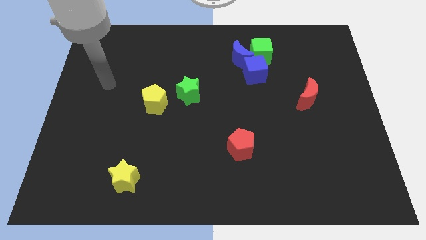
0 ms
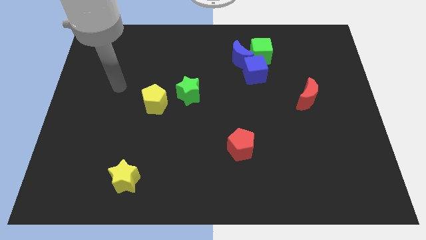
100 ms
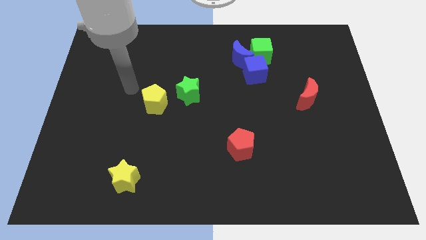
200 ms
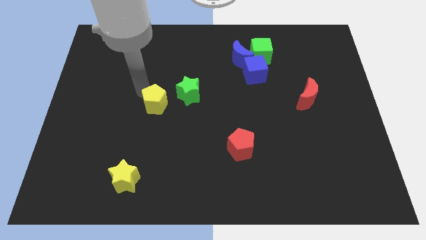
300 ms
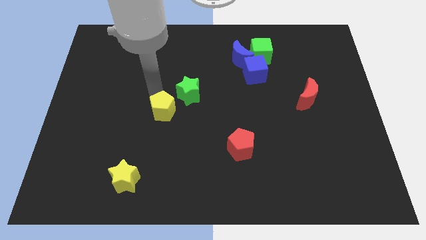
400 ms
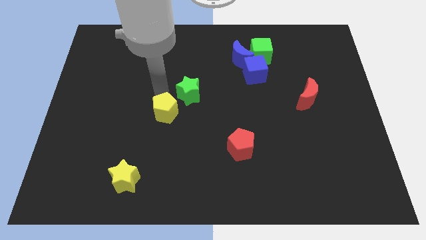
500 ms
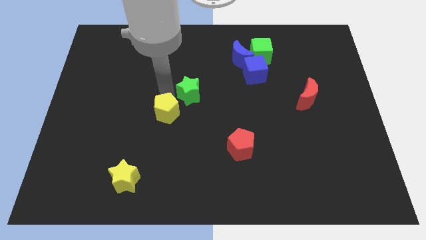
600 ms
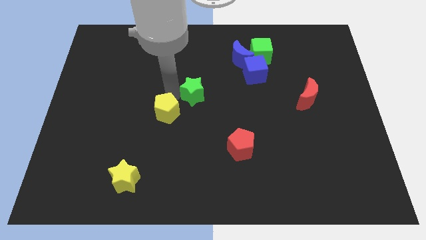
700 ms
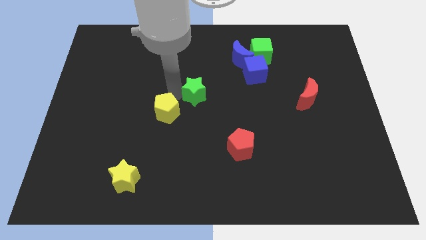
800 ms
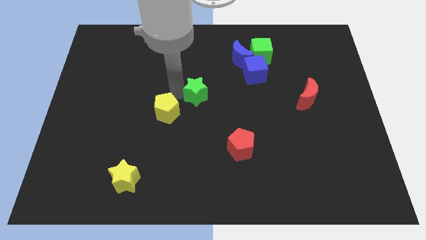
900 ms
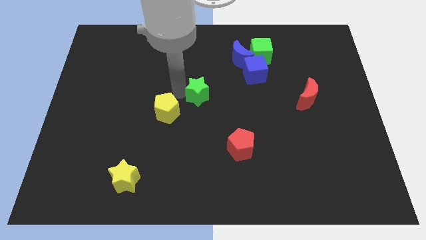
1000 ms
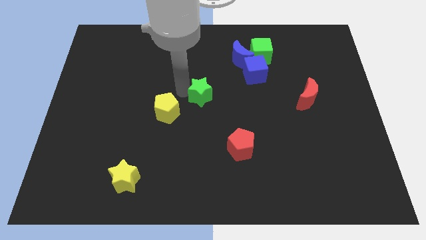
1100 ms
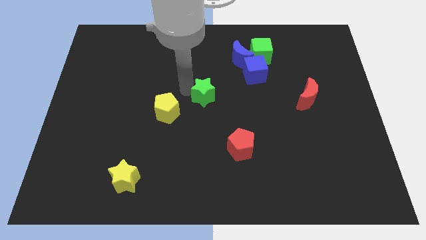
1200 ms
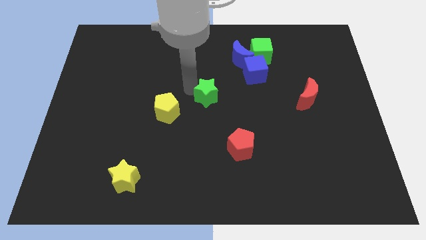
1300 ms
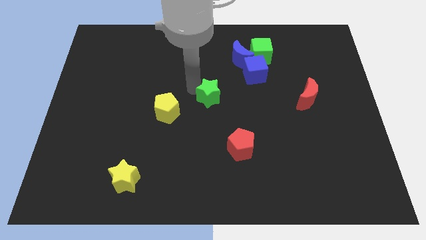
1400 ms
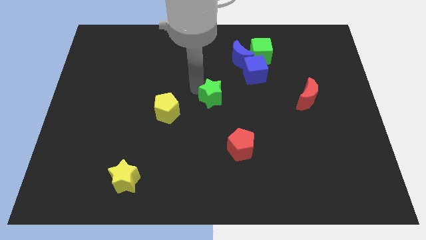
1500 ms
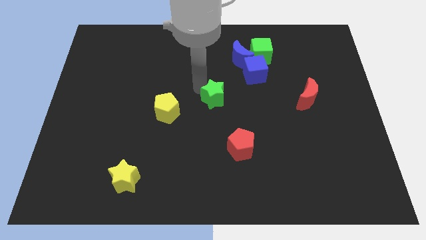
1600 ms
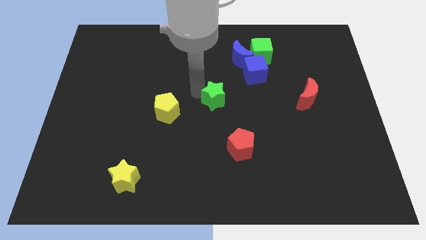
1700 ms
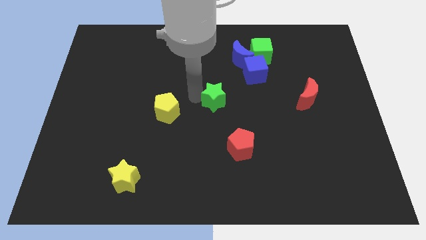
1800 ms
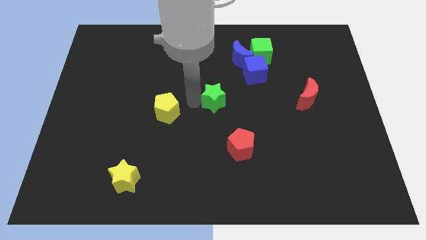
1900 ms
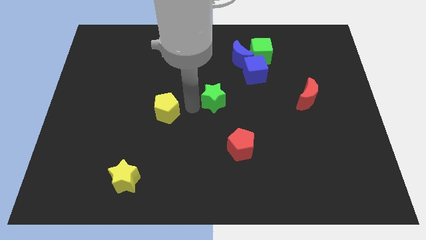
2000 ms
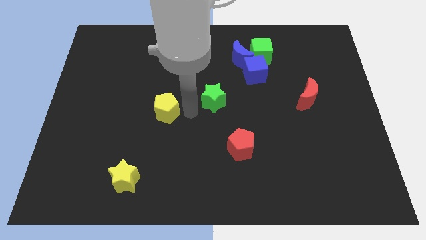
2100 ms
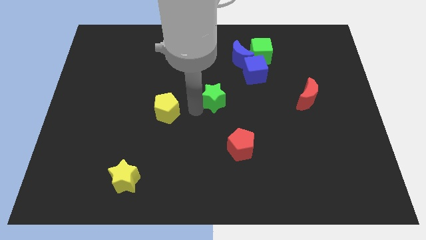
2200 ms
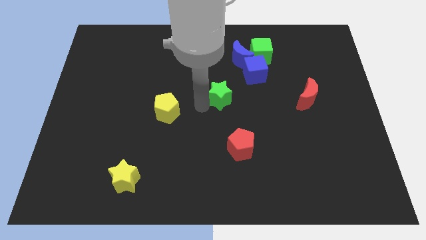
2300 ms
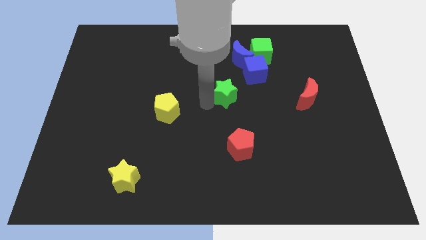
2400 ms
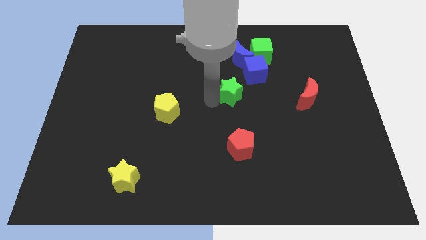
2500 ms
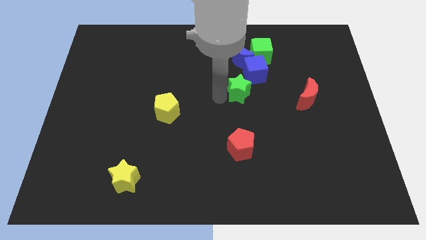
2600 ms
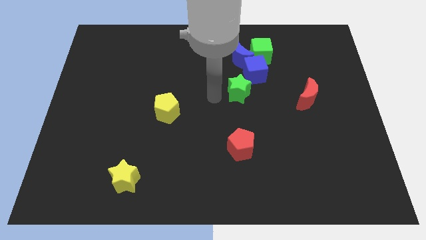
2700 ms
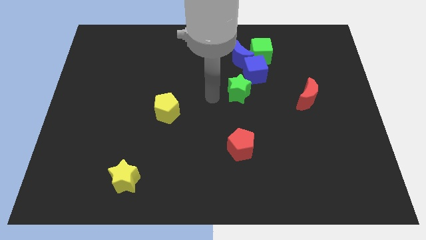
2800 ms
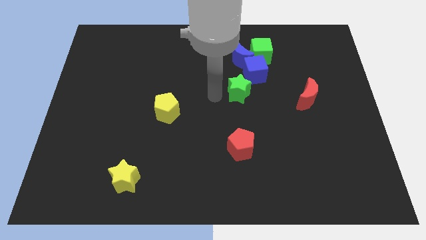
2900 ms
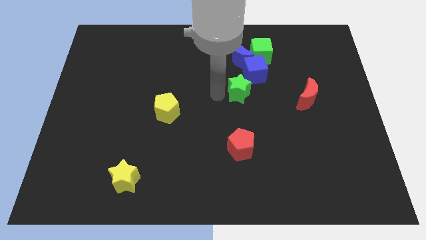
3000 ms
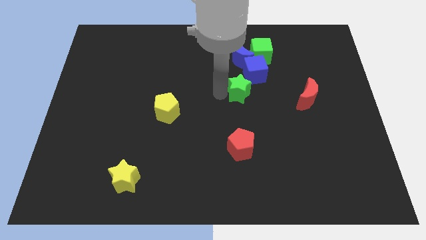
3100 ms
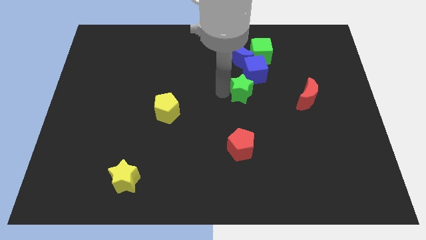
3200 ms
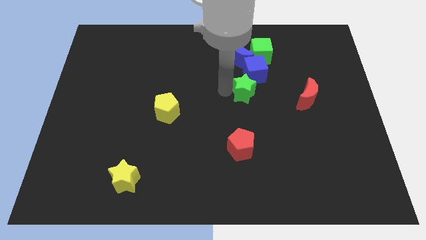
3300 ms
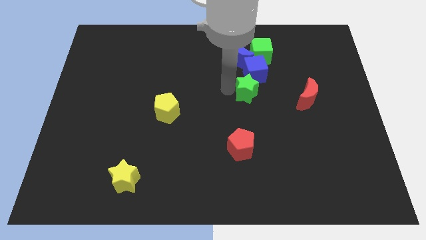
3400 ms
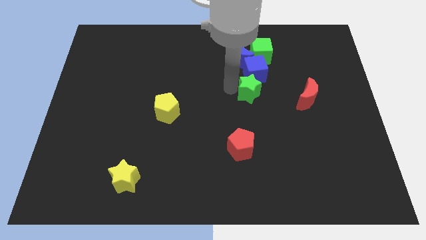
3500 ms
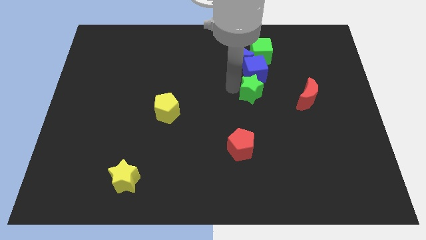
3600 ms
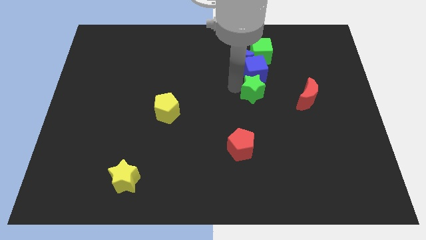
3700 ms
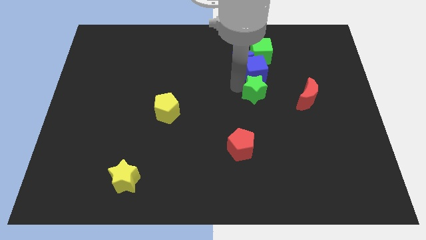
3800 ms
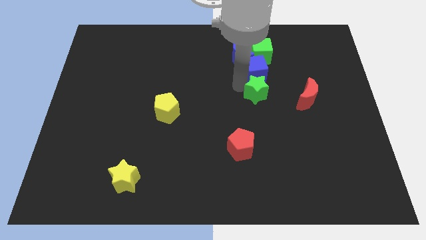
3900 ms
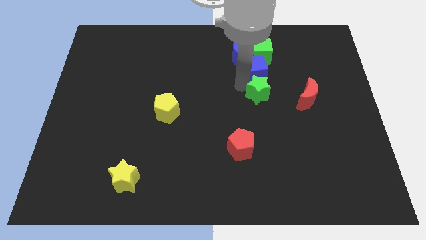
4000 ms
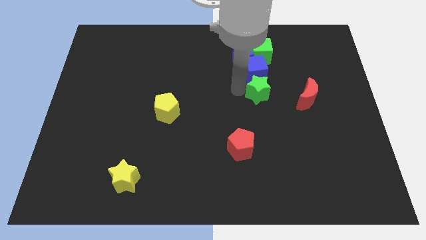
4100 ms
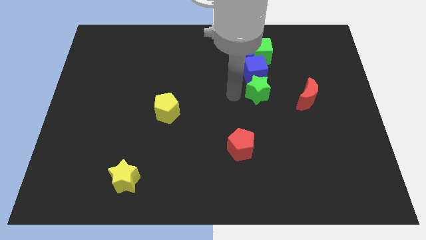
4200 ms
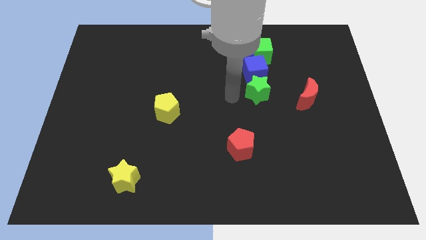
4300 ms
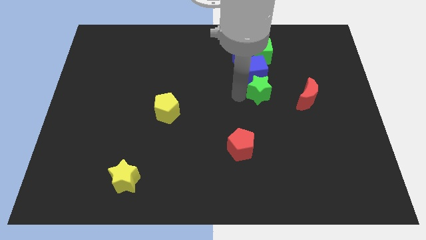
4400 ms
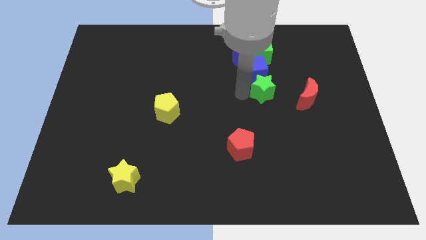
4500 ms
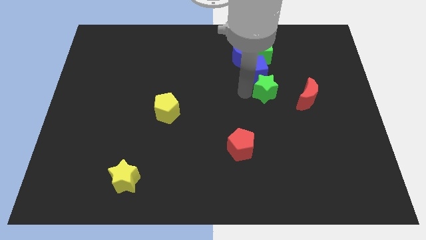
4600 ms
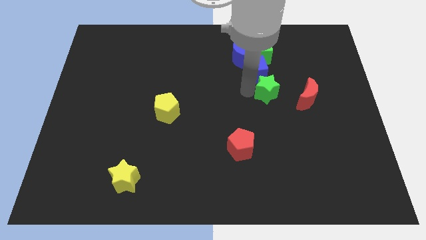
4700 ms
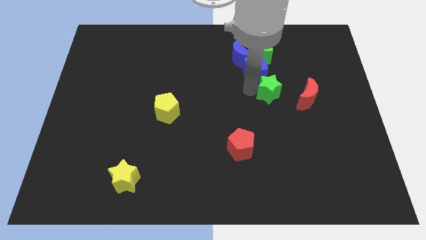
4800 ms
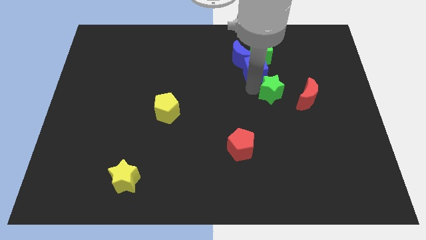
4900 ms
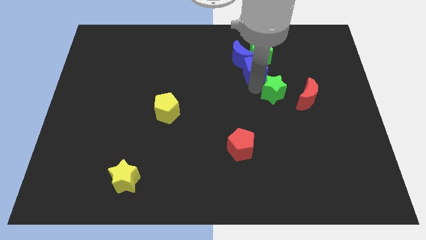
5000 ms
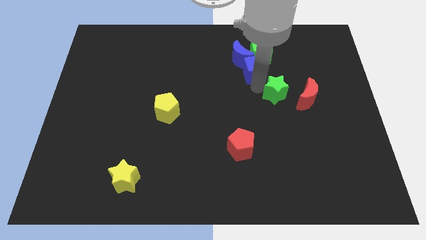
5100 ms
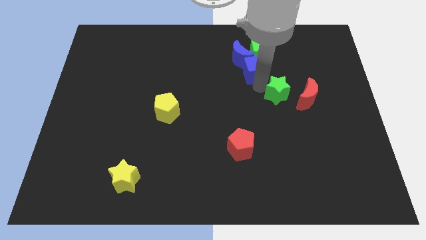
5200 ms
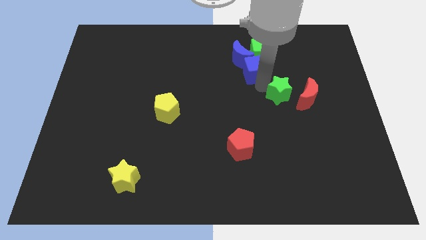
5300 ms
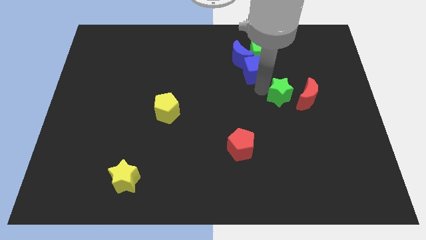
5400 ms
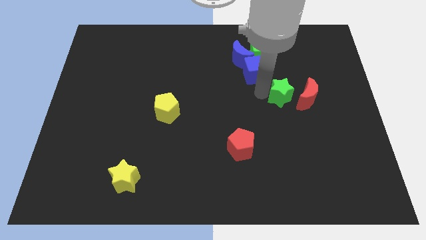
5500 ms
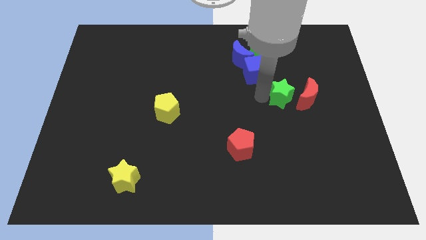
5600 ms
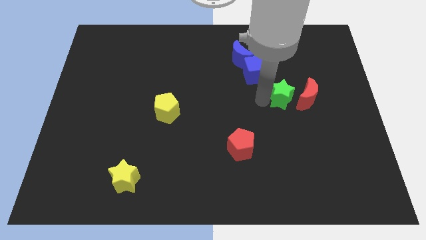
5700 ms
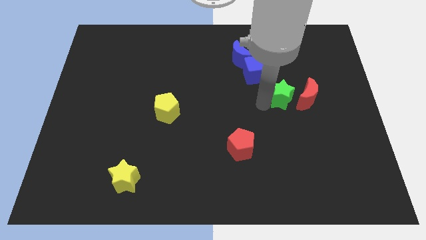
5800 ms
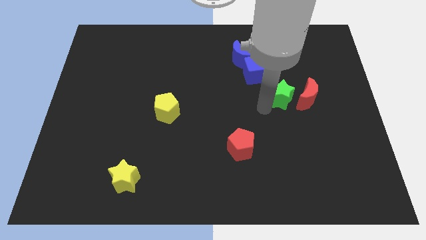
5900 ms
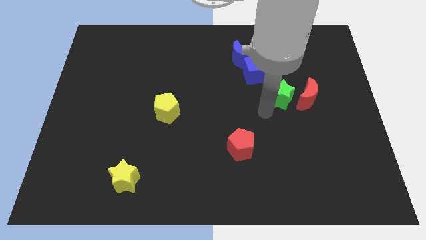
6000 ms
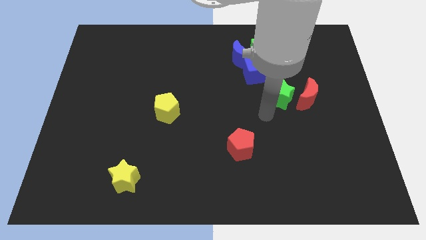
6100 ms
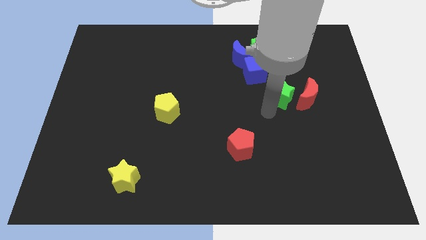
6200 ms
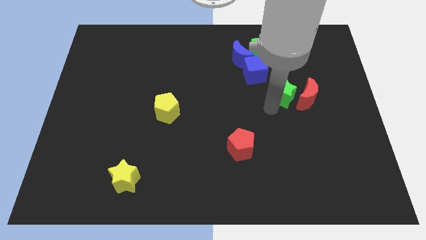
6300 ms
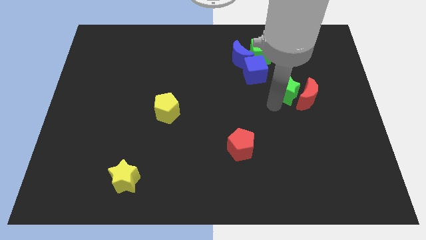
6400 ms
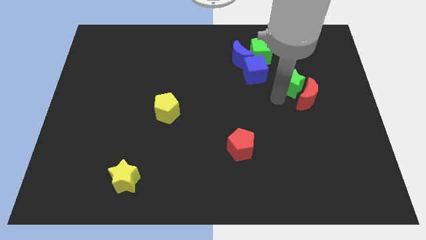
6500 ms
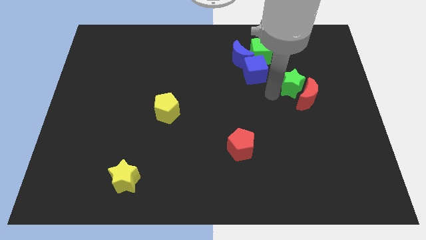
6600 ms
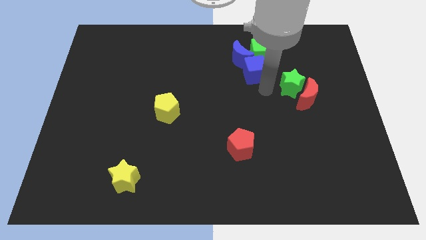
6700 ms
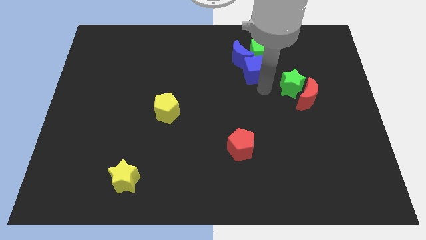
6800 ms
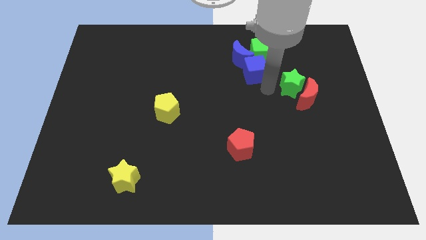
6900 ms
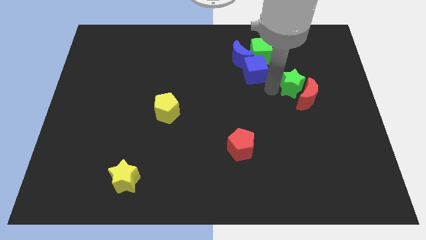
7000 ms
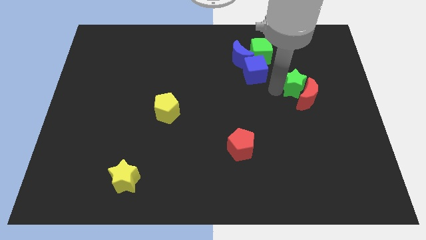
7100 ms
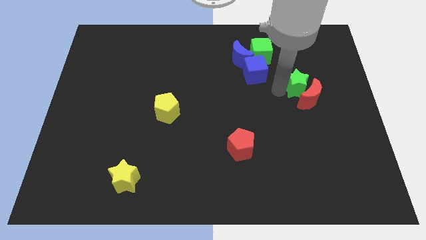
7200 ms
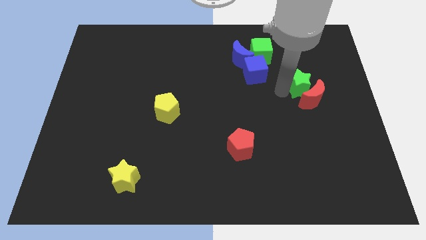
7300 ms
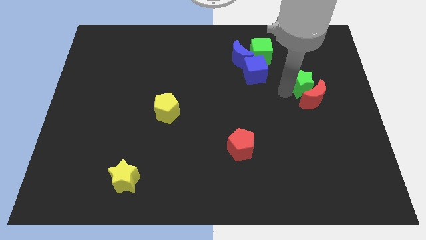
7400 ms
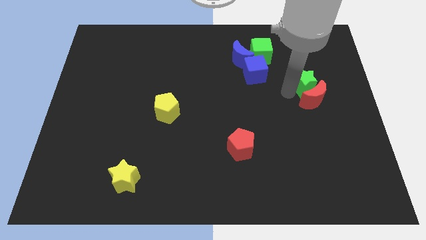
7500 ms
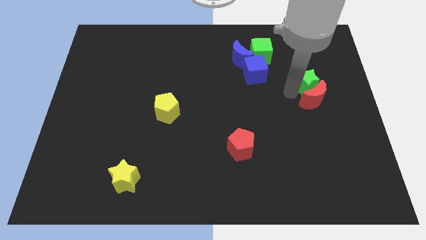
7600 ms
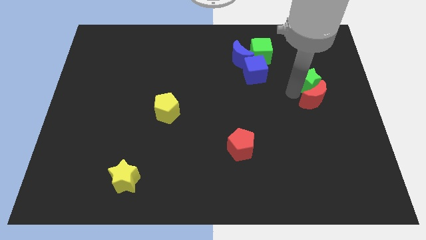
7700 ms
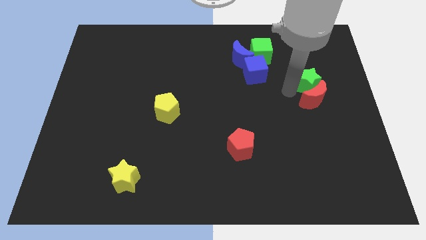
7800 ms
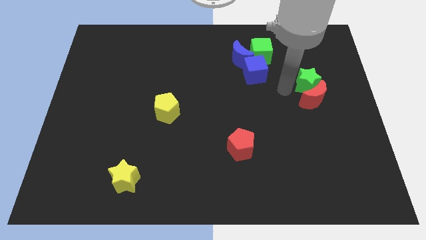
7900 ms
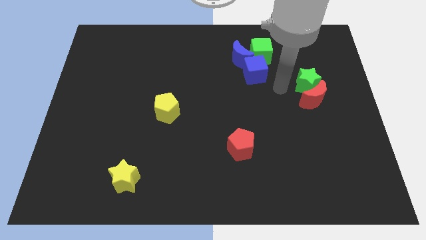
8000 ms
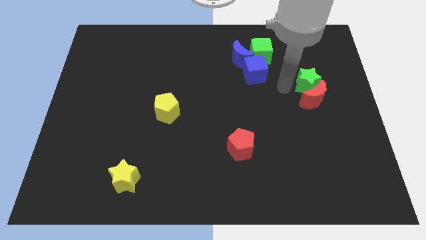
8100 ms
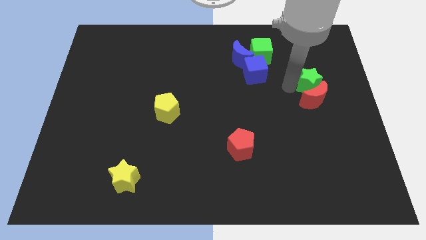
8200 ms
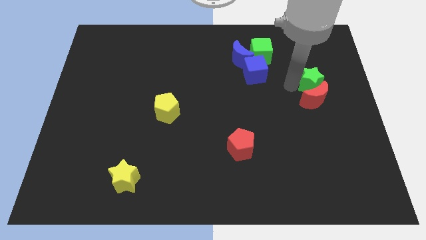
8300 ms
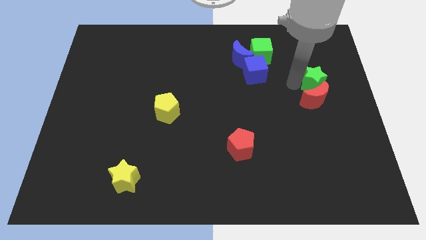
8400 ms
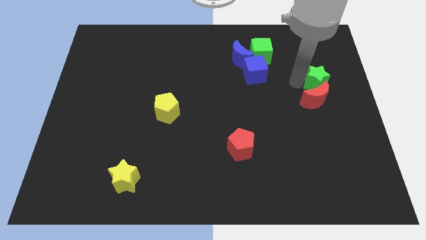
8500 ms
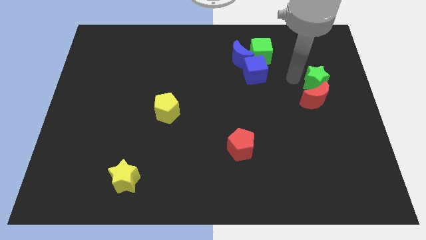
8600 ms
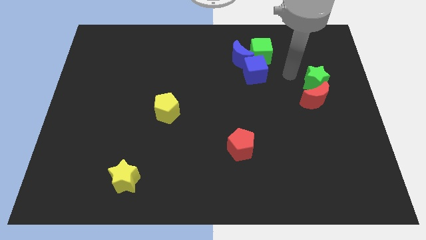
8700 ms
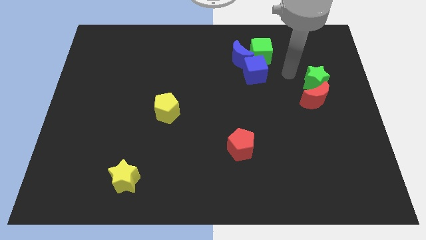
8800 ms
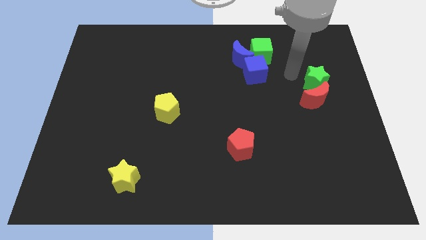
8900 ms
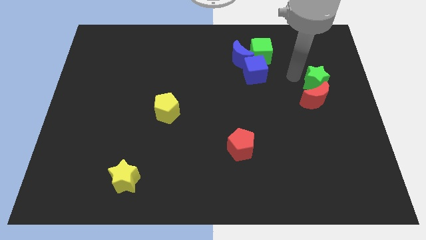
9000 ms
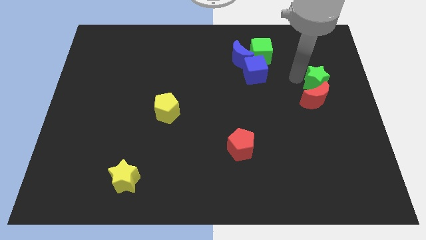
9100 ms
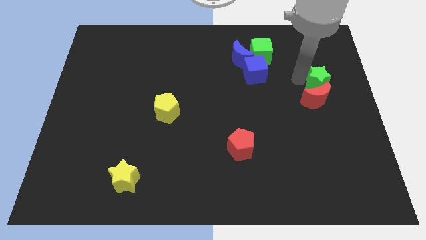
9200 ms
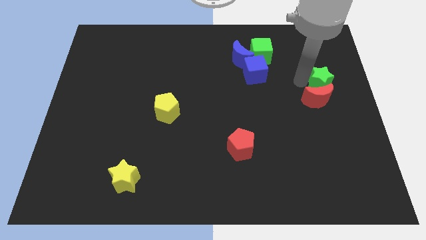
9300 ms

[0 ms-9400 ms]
put the green star to the right side
